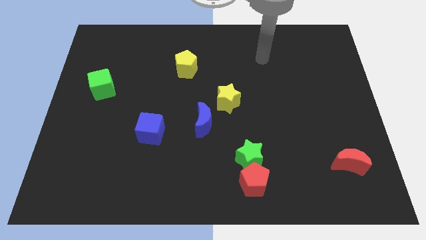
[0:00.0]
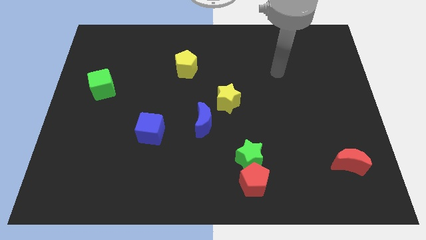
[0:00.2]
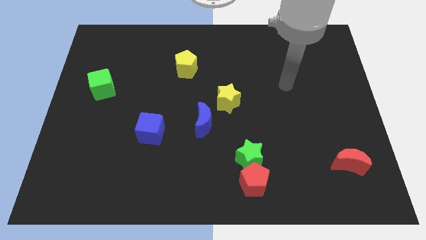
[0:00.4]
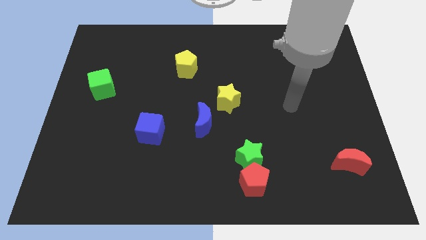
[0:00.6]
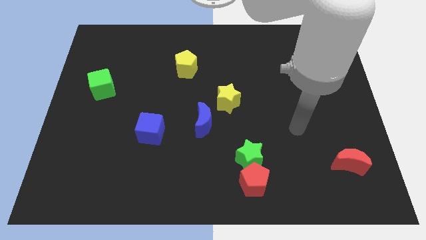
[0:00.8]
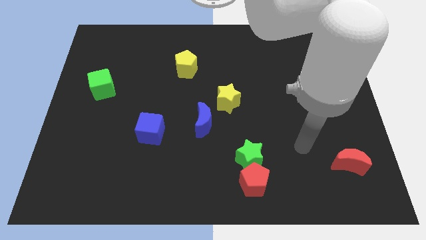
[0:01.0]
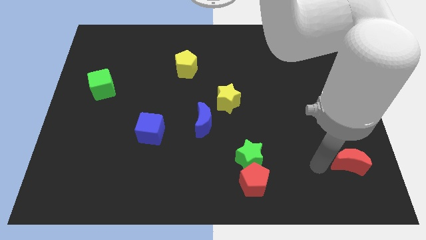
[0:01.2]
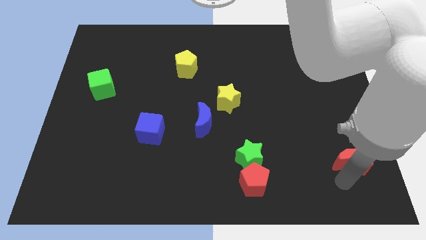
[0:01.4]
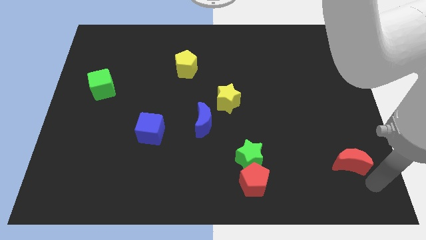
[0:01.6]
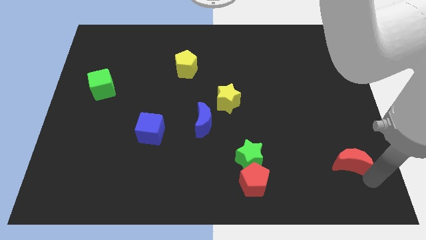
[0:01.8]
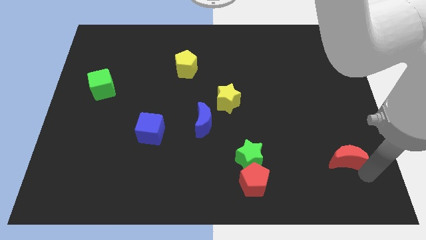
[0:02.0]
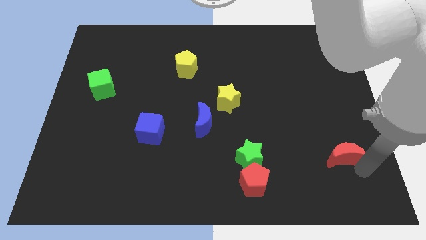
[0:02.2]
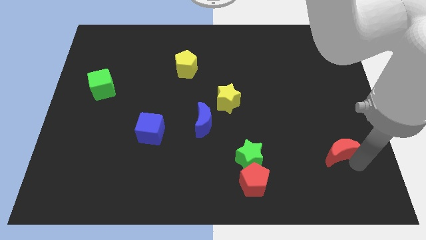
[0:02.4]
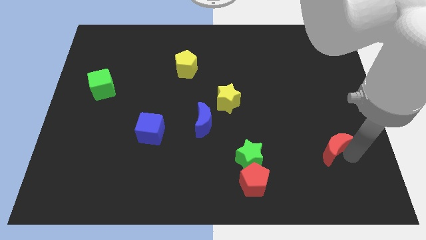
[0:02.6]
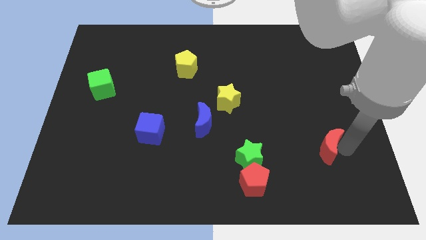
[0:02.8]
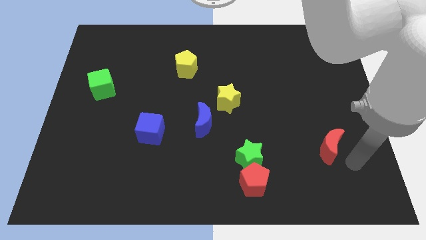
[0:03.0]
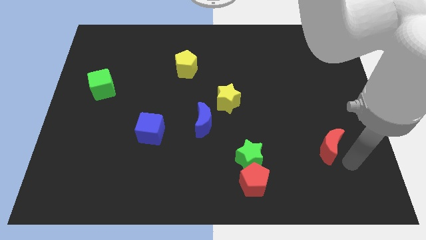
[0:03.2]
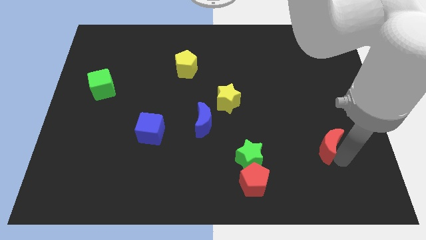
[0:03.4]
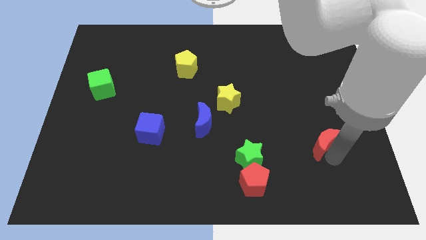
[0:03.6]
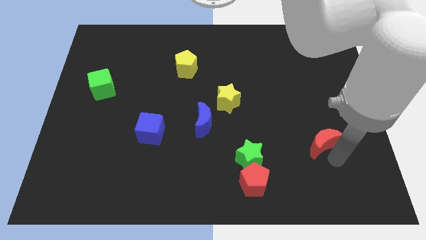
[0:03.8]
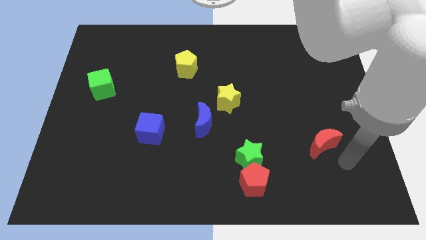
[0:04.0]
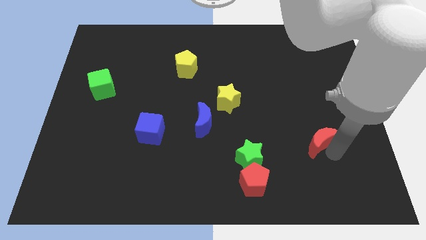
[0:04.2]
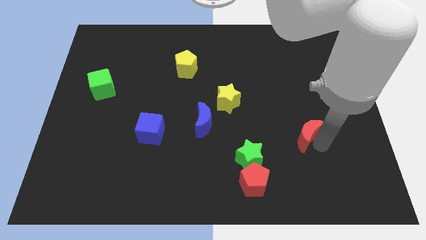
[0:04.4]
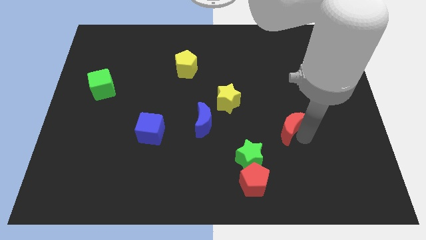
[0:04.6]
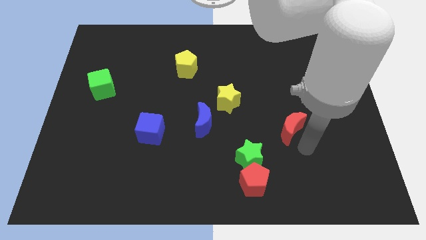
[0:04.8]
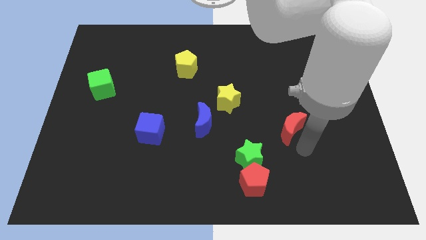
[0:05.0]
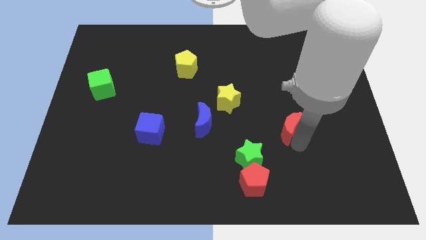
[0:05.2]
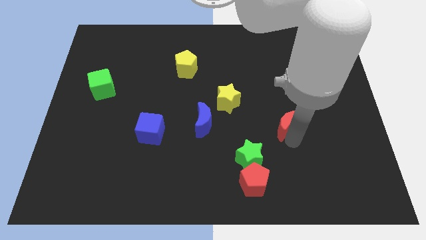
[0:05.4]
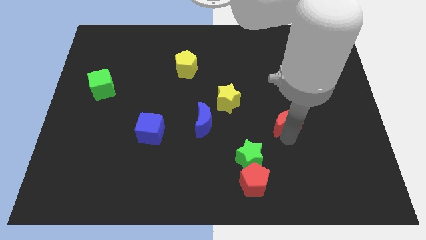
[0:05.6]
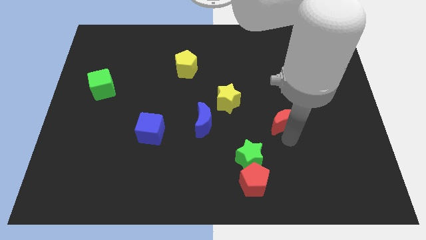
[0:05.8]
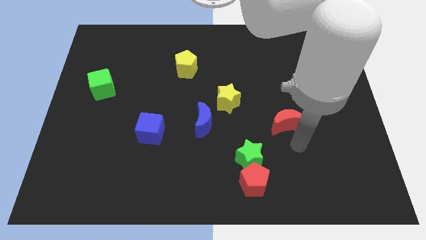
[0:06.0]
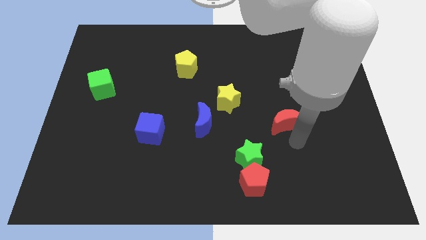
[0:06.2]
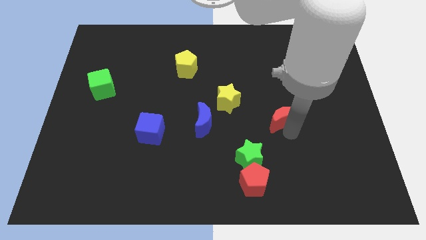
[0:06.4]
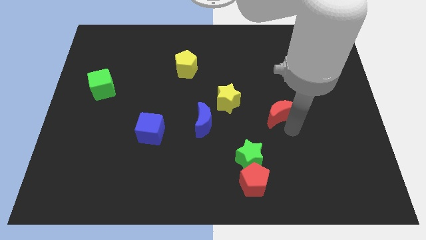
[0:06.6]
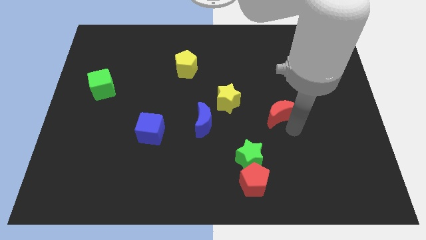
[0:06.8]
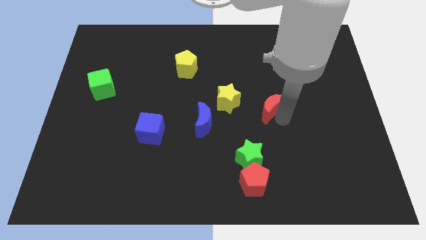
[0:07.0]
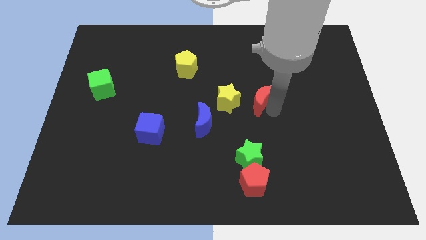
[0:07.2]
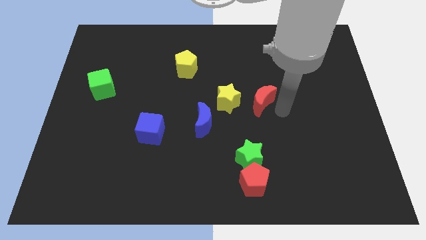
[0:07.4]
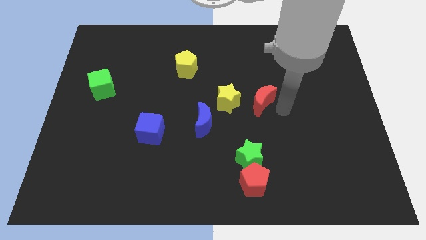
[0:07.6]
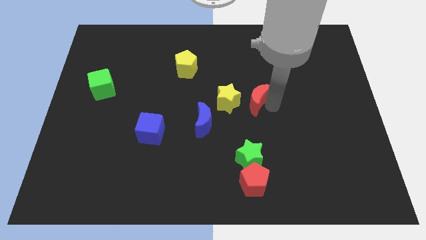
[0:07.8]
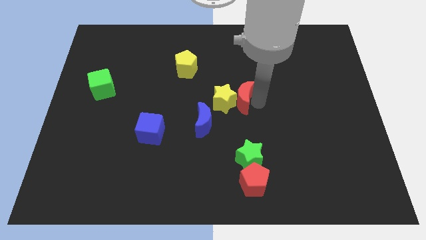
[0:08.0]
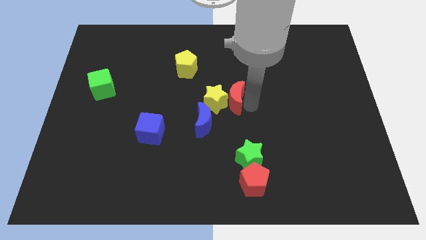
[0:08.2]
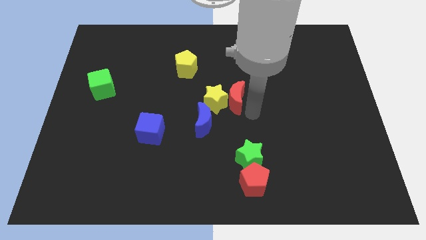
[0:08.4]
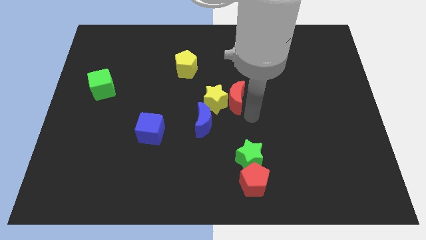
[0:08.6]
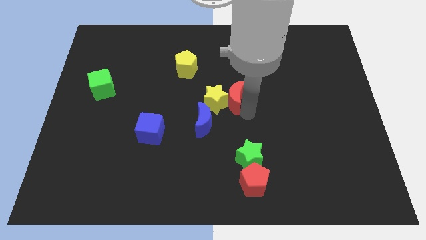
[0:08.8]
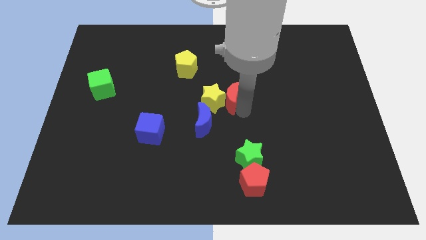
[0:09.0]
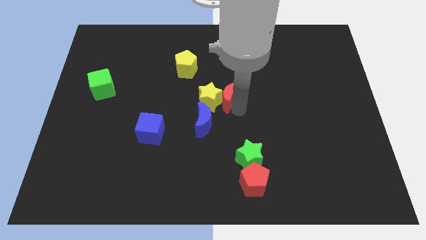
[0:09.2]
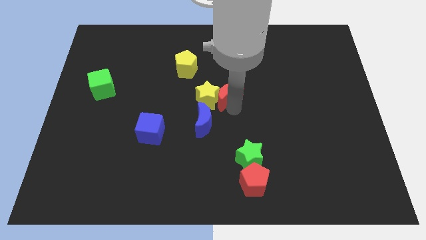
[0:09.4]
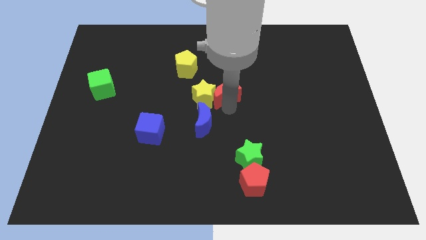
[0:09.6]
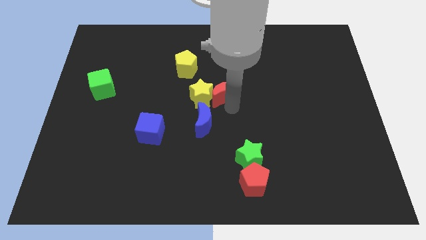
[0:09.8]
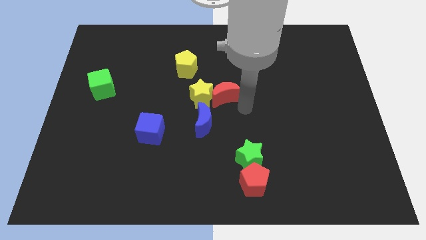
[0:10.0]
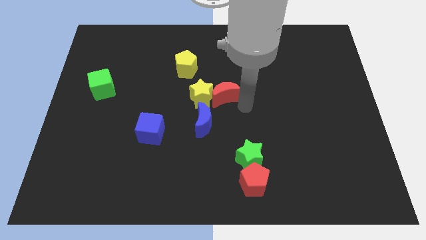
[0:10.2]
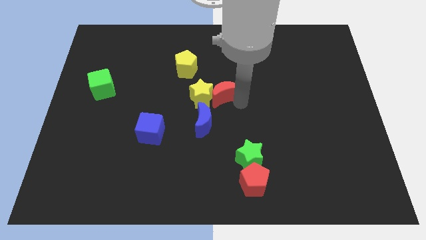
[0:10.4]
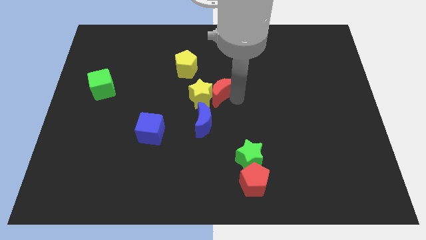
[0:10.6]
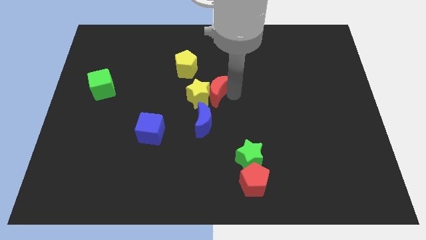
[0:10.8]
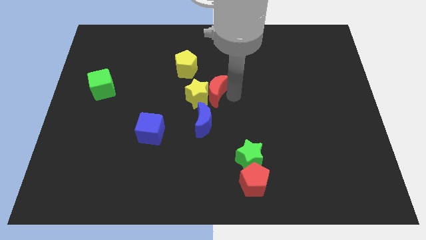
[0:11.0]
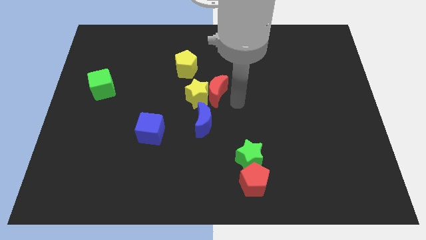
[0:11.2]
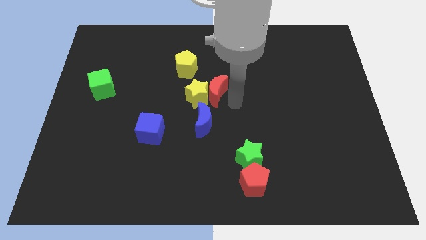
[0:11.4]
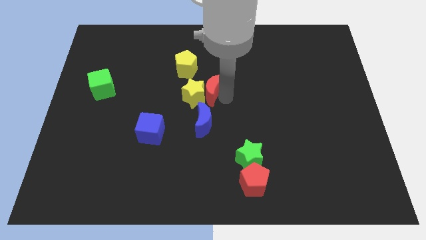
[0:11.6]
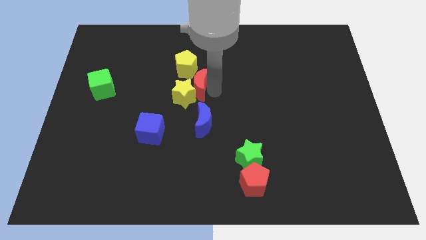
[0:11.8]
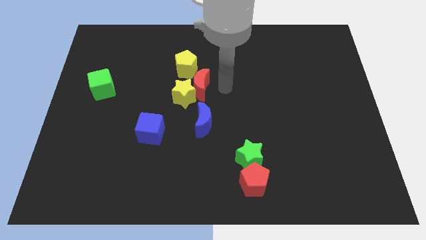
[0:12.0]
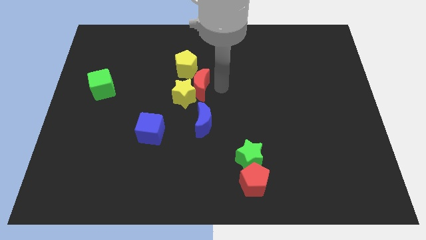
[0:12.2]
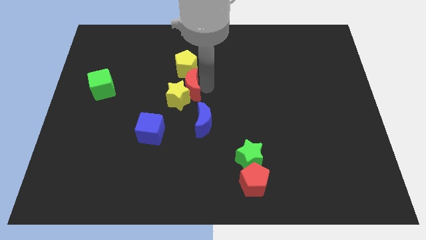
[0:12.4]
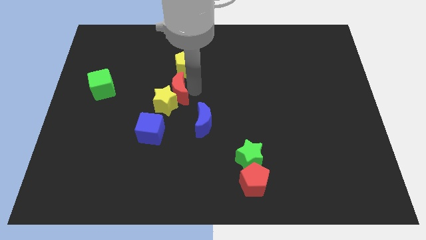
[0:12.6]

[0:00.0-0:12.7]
push the red moon to the bottom left side of the yellow pentagon

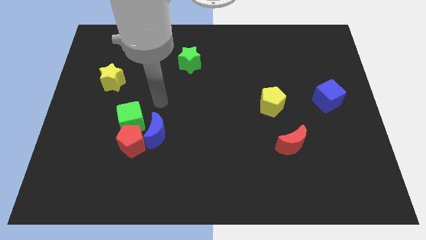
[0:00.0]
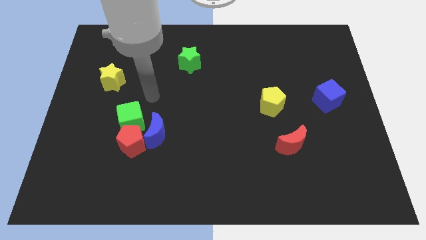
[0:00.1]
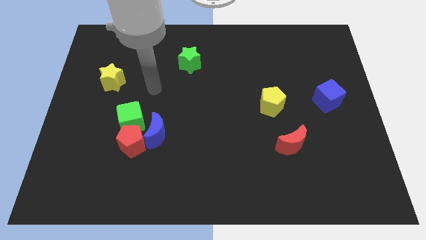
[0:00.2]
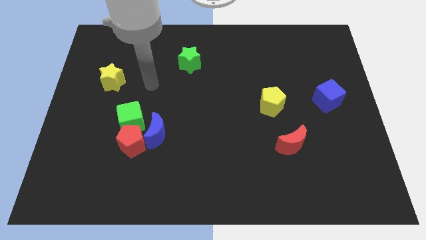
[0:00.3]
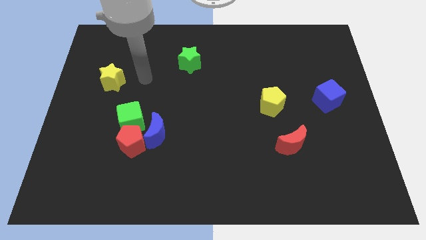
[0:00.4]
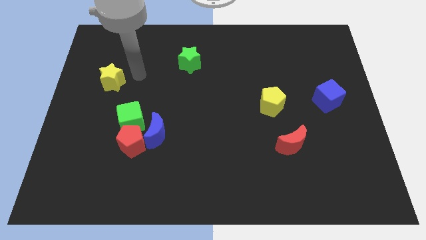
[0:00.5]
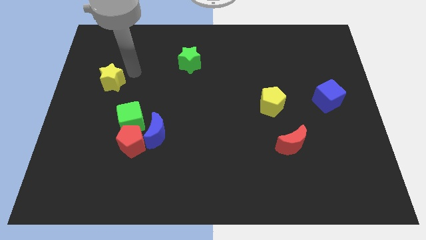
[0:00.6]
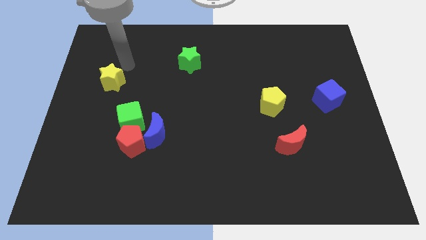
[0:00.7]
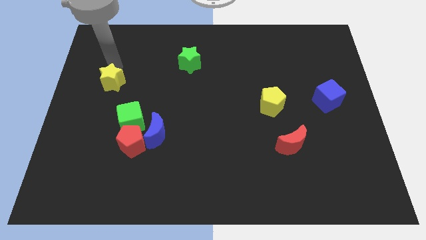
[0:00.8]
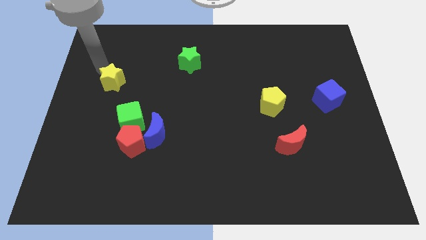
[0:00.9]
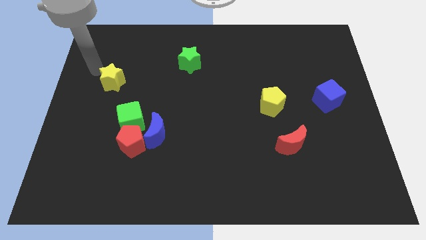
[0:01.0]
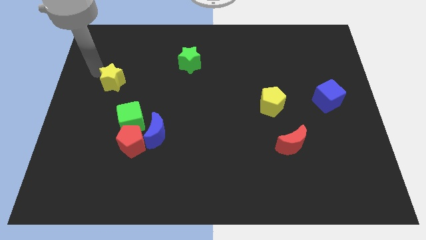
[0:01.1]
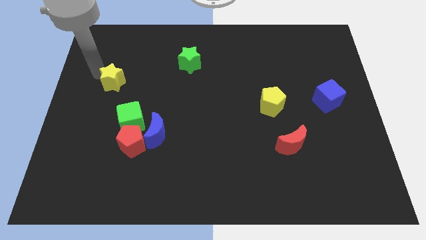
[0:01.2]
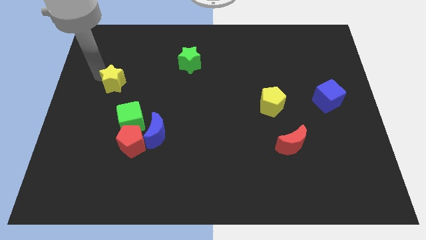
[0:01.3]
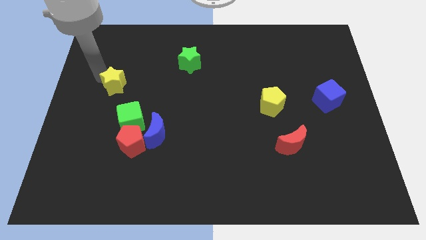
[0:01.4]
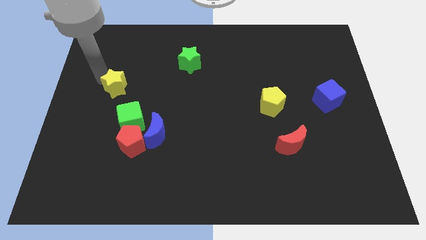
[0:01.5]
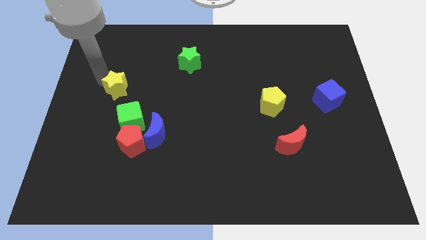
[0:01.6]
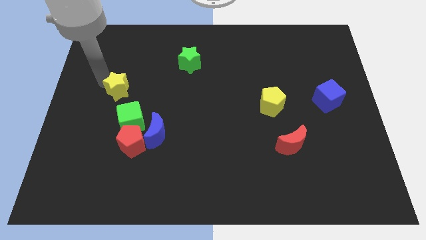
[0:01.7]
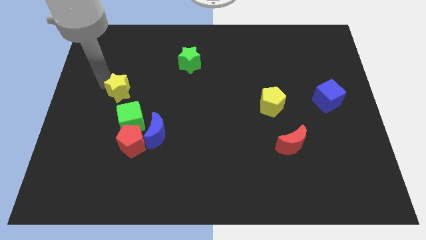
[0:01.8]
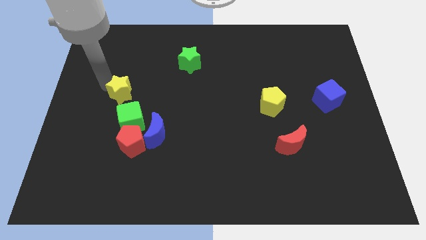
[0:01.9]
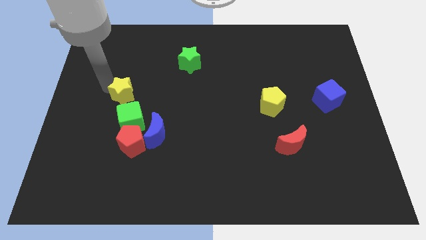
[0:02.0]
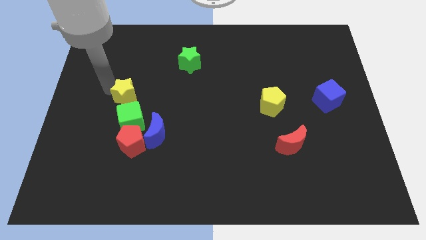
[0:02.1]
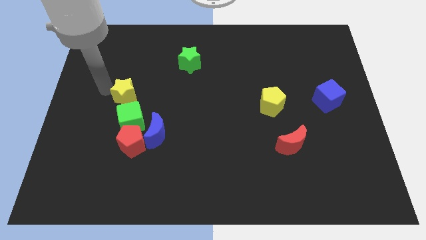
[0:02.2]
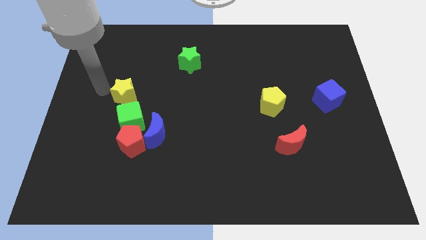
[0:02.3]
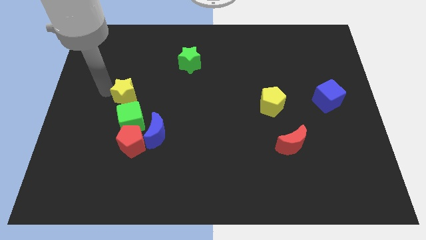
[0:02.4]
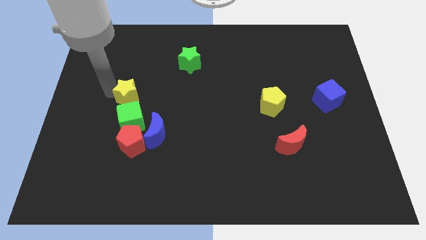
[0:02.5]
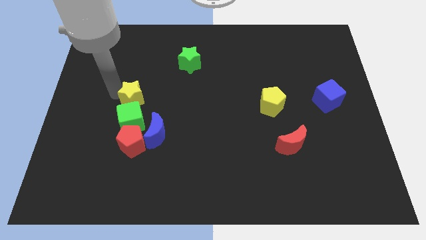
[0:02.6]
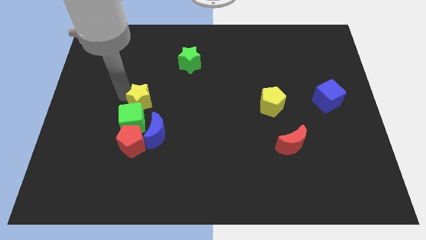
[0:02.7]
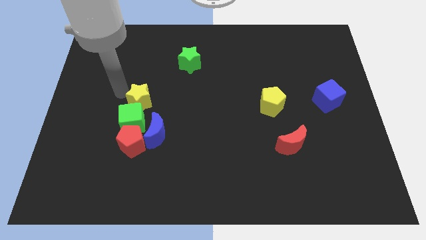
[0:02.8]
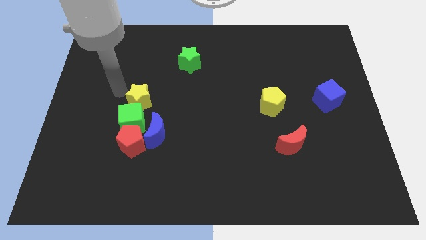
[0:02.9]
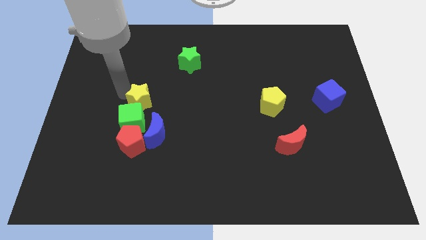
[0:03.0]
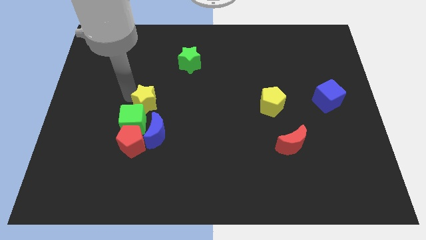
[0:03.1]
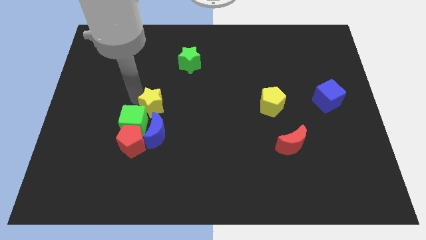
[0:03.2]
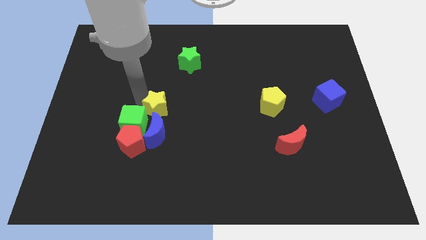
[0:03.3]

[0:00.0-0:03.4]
put the yellow star right of the green cube
